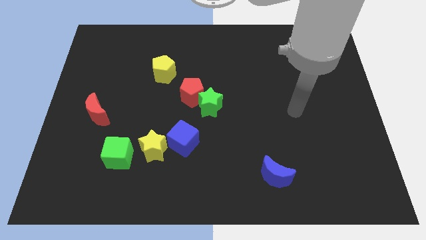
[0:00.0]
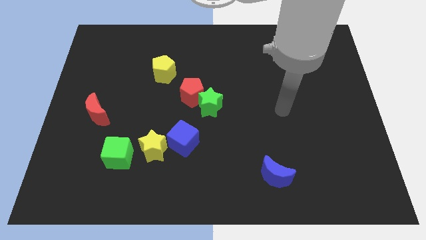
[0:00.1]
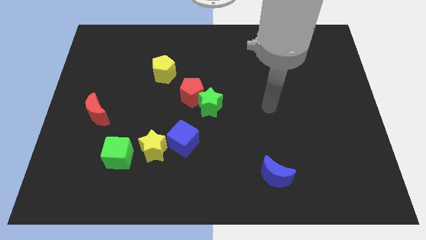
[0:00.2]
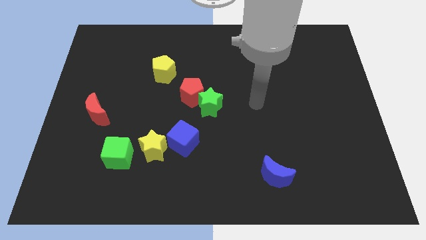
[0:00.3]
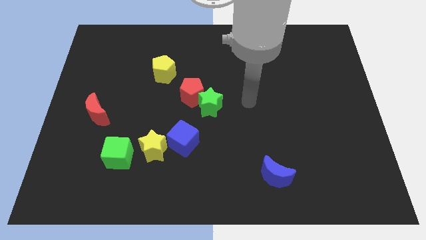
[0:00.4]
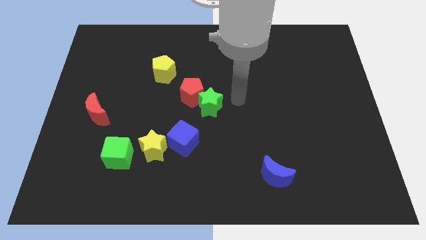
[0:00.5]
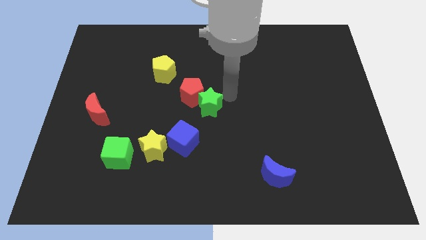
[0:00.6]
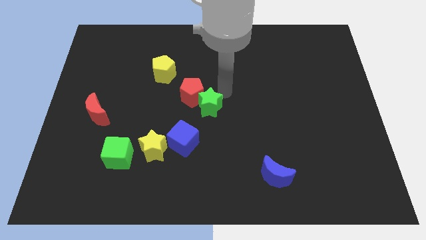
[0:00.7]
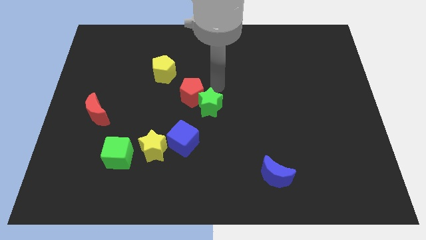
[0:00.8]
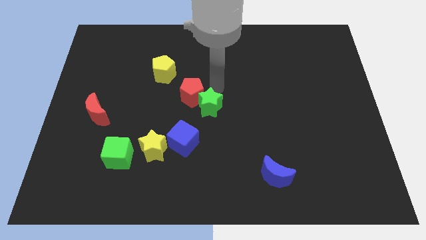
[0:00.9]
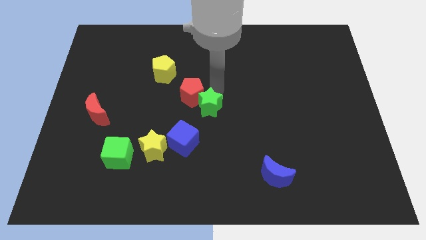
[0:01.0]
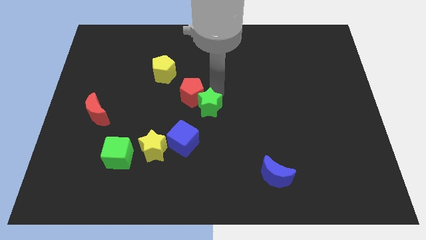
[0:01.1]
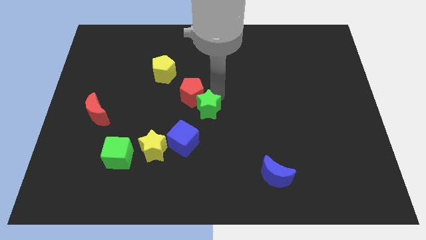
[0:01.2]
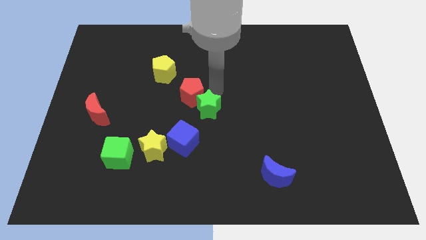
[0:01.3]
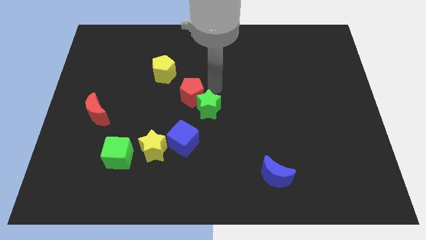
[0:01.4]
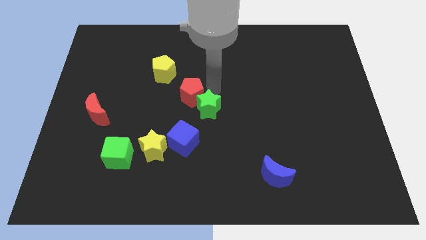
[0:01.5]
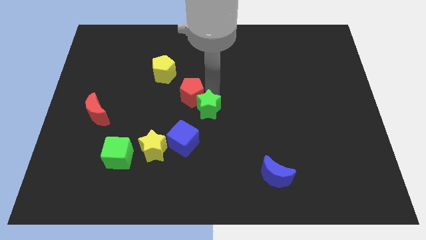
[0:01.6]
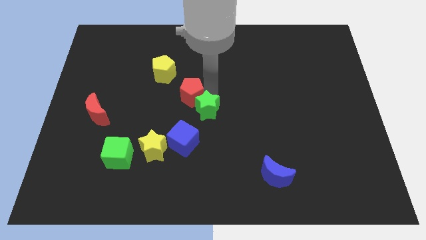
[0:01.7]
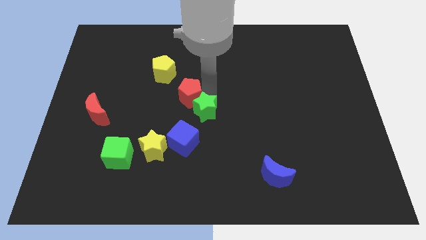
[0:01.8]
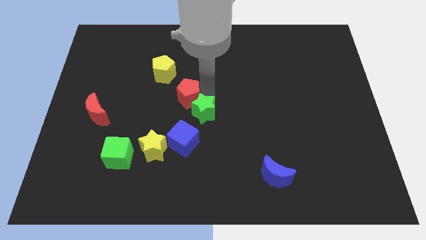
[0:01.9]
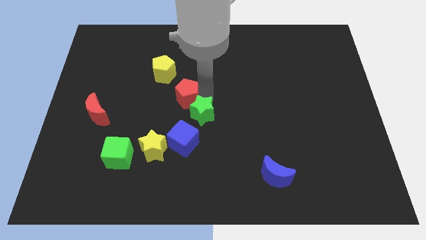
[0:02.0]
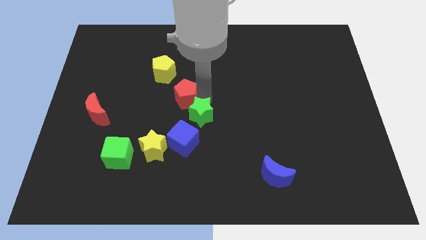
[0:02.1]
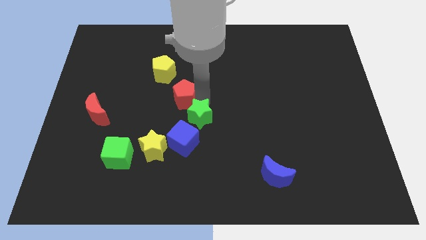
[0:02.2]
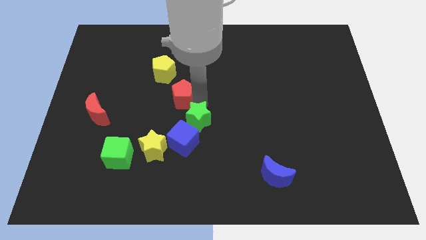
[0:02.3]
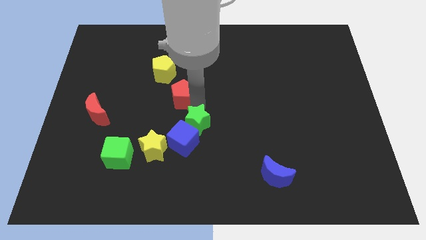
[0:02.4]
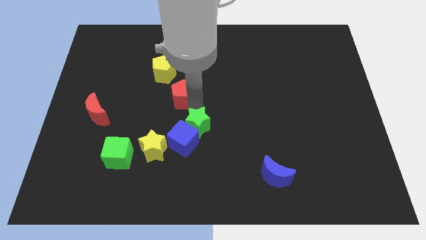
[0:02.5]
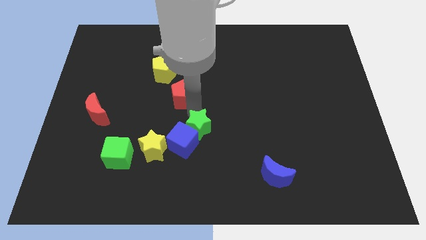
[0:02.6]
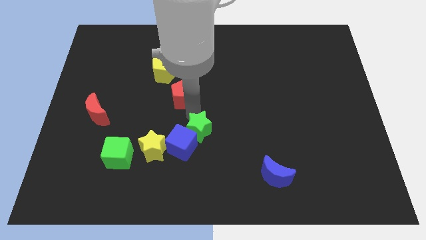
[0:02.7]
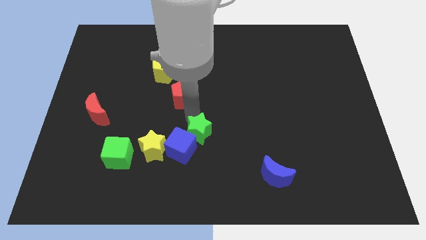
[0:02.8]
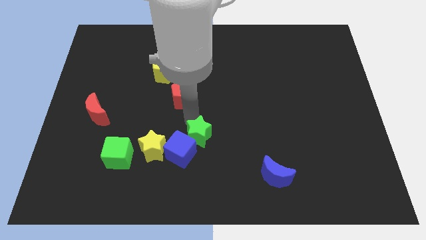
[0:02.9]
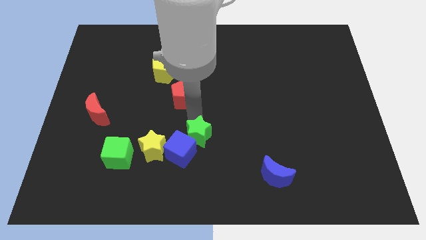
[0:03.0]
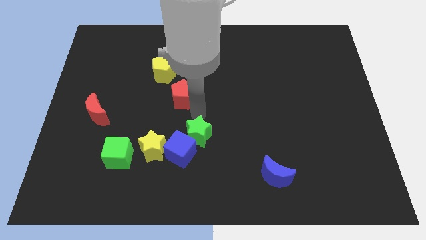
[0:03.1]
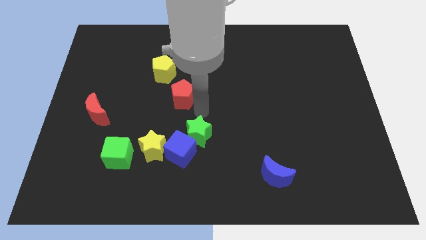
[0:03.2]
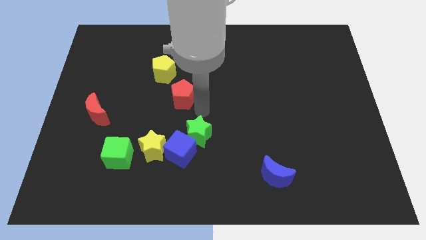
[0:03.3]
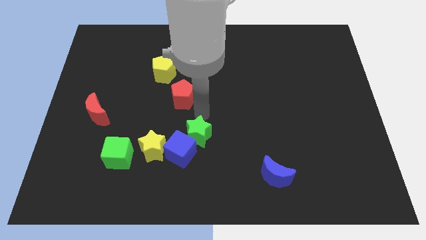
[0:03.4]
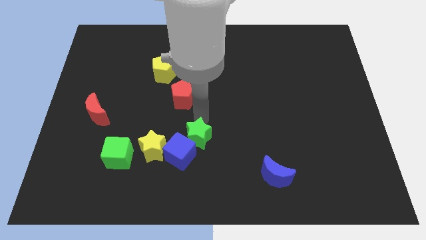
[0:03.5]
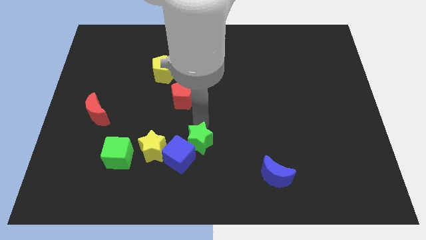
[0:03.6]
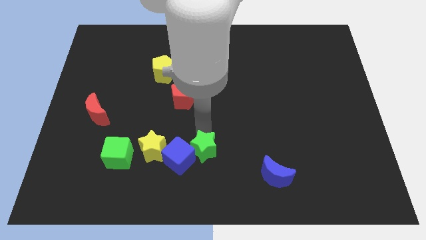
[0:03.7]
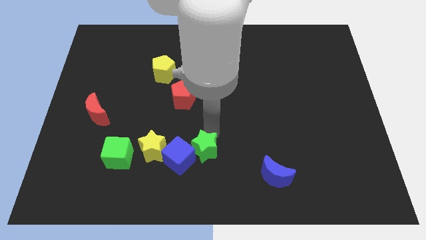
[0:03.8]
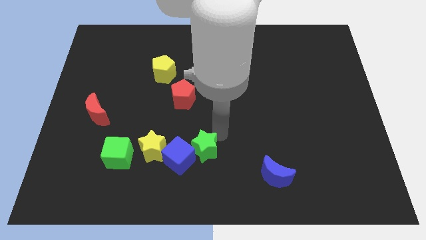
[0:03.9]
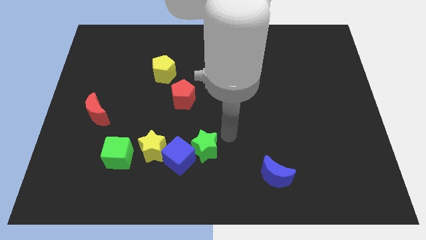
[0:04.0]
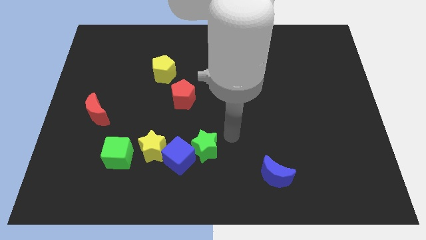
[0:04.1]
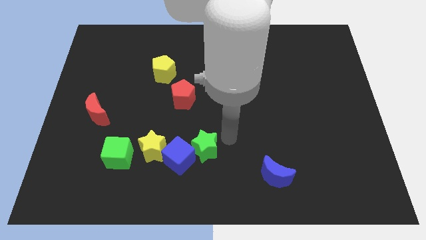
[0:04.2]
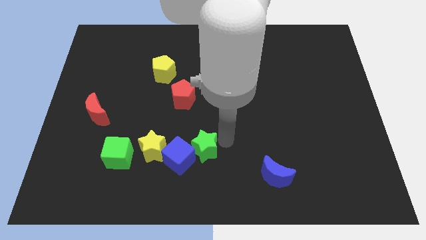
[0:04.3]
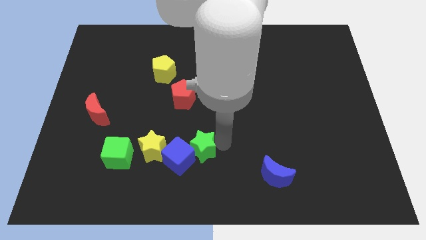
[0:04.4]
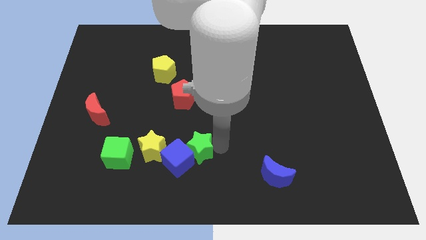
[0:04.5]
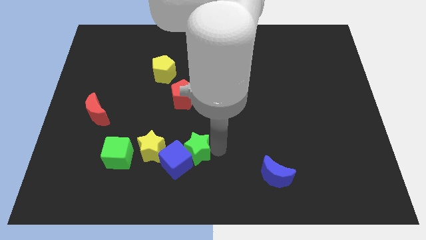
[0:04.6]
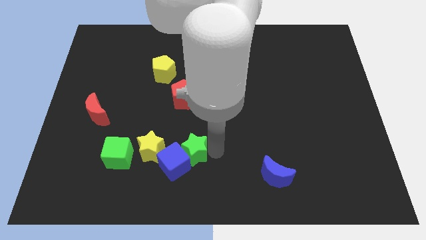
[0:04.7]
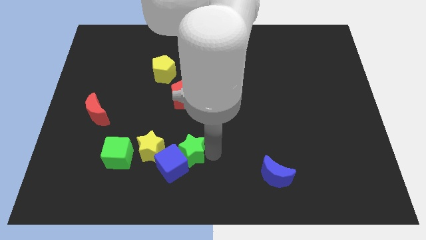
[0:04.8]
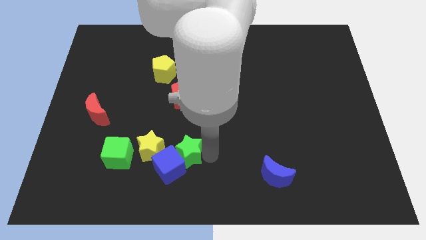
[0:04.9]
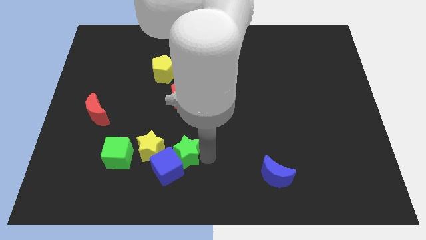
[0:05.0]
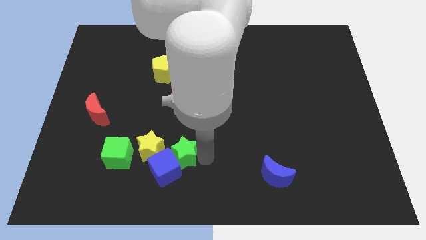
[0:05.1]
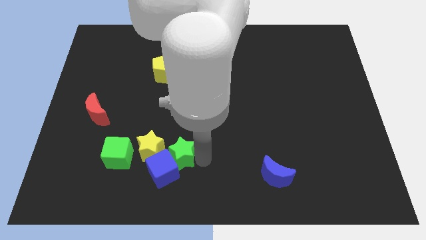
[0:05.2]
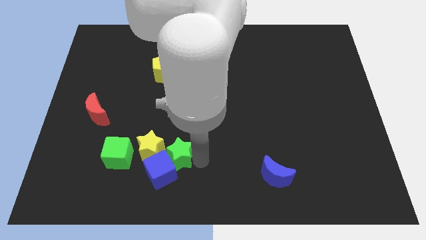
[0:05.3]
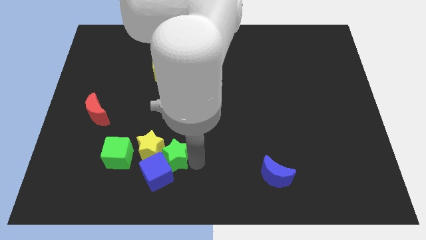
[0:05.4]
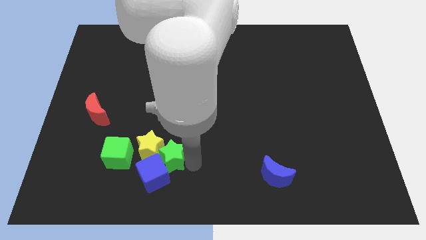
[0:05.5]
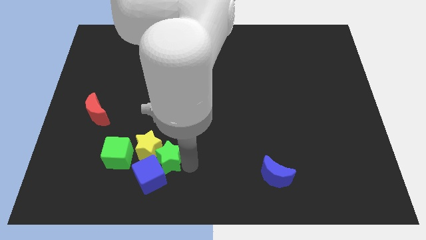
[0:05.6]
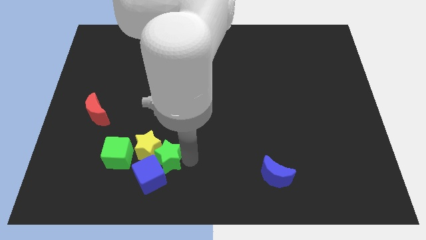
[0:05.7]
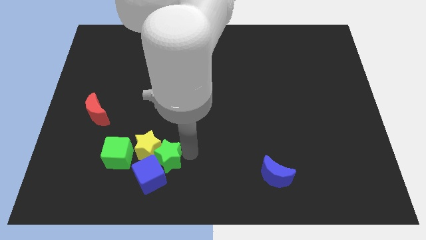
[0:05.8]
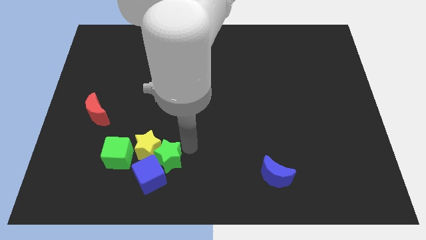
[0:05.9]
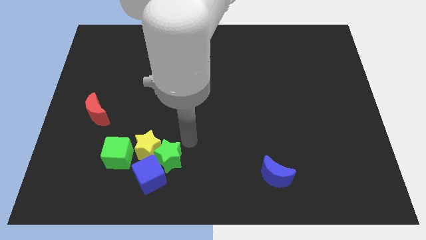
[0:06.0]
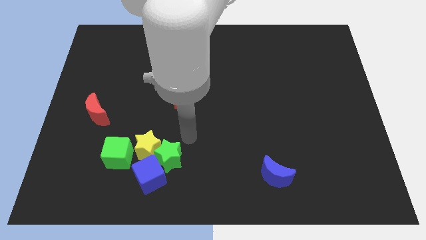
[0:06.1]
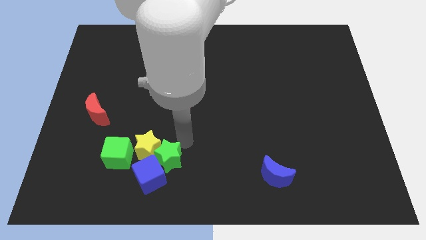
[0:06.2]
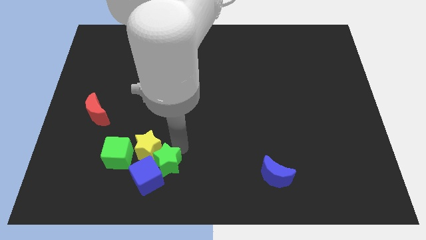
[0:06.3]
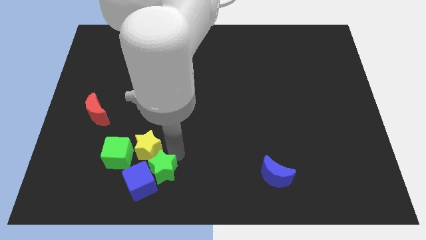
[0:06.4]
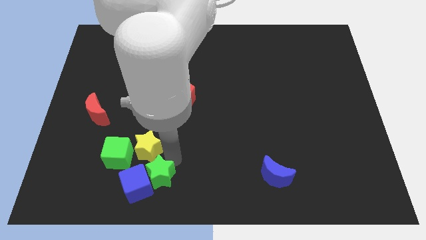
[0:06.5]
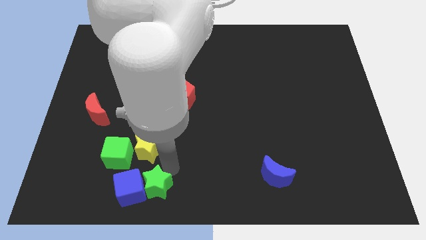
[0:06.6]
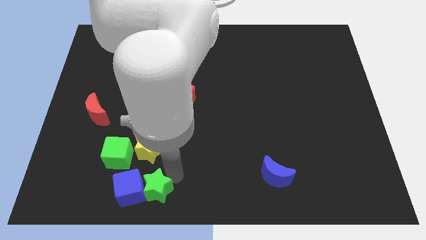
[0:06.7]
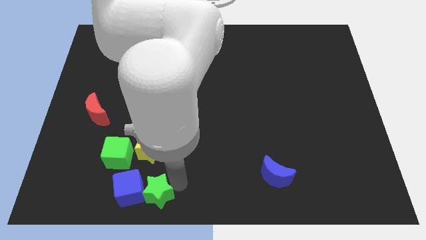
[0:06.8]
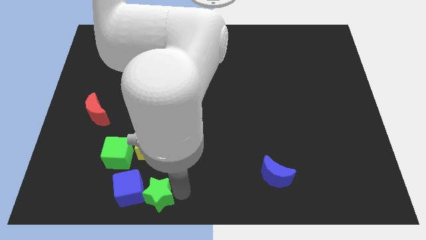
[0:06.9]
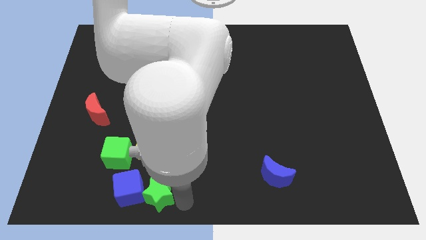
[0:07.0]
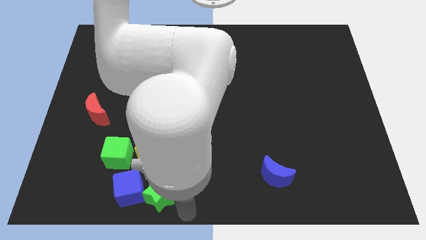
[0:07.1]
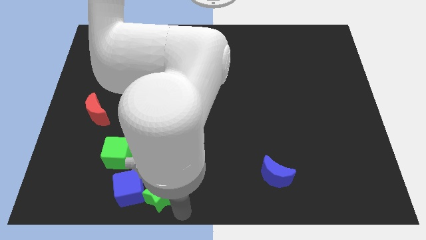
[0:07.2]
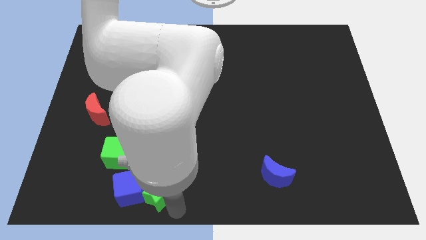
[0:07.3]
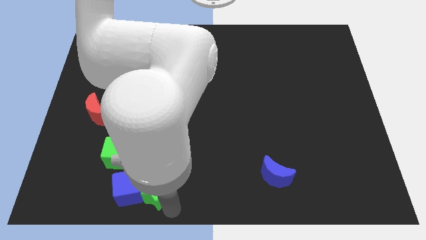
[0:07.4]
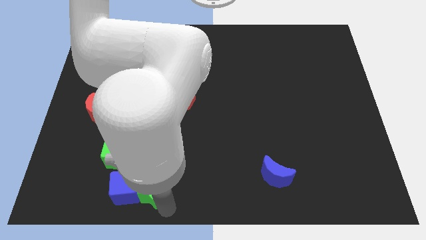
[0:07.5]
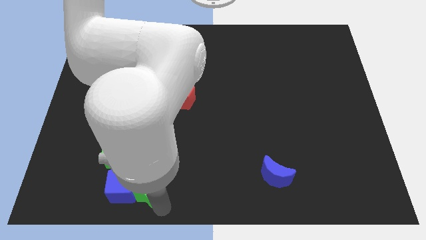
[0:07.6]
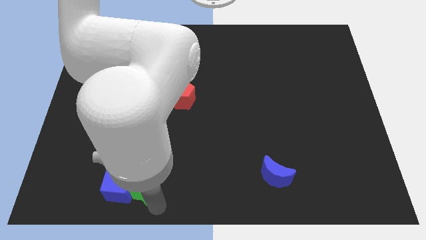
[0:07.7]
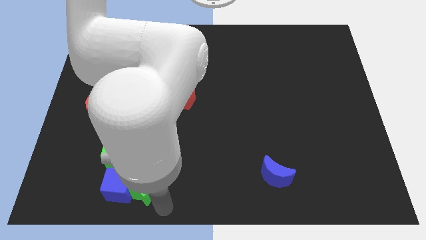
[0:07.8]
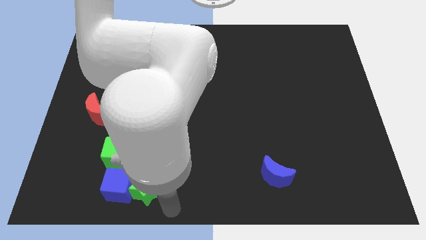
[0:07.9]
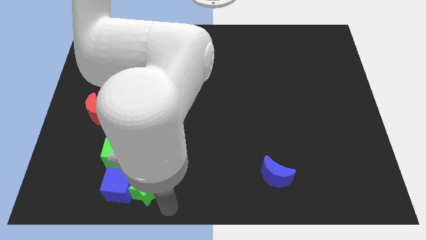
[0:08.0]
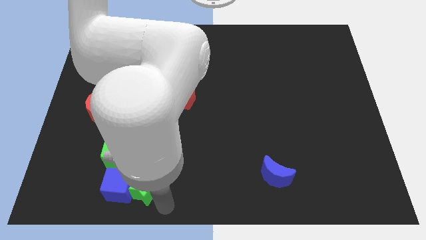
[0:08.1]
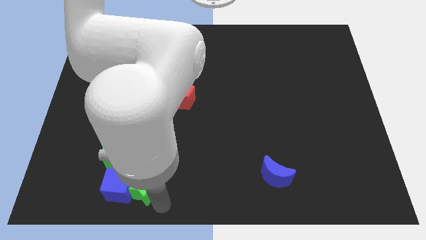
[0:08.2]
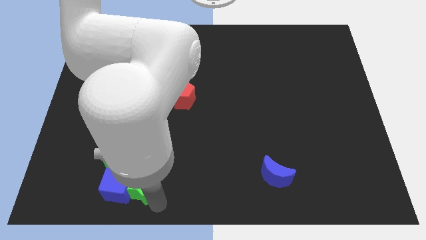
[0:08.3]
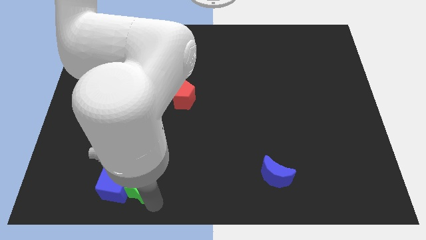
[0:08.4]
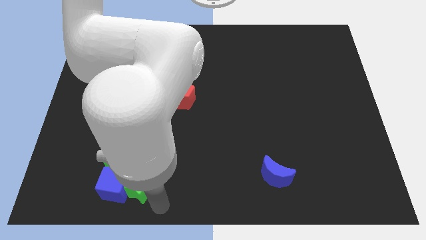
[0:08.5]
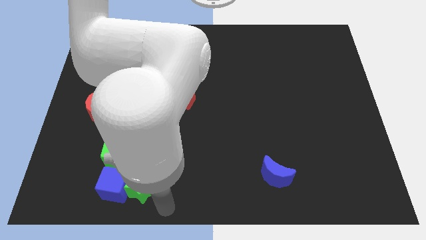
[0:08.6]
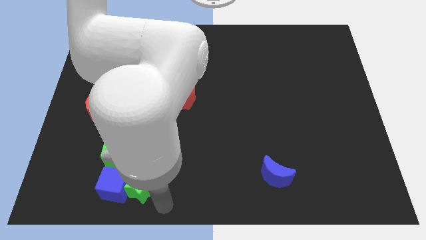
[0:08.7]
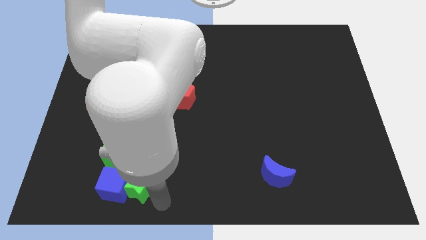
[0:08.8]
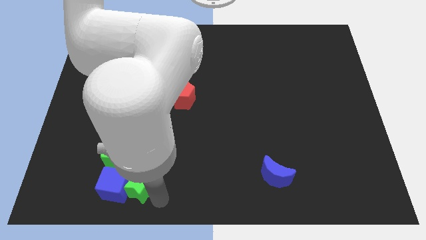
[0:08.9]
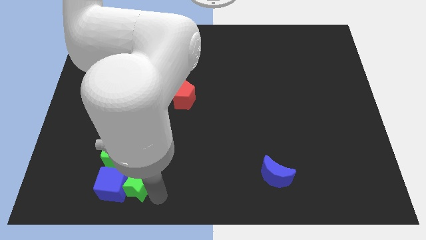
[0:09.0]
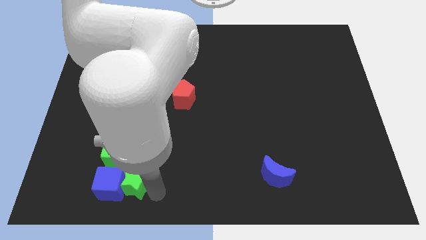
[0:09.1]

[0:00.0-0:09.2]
push the green star to the bottom left of the yellow star
